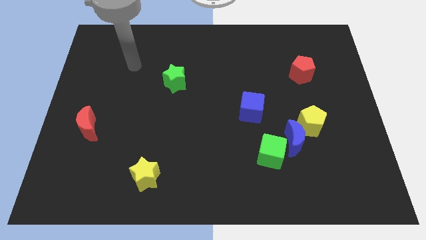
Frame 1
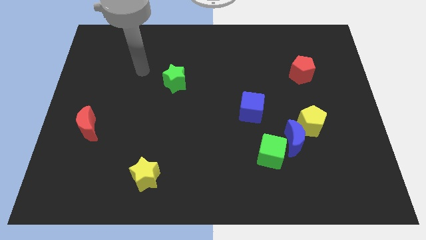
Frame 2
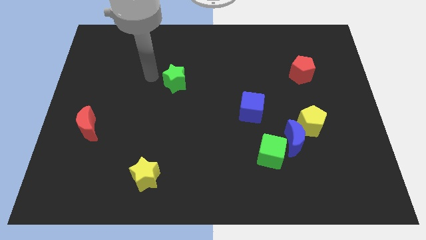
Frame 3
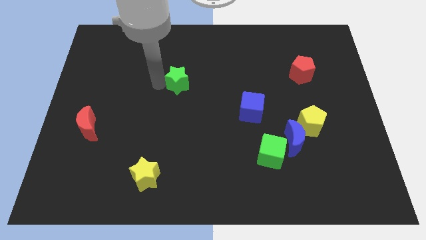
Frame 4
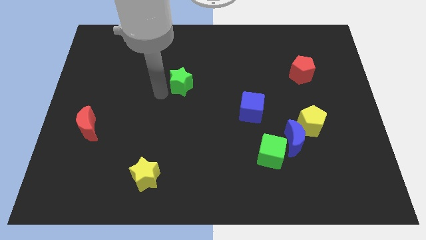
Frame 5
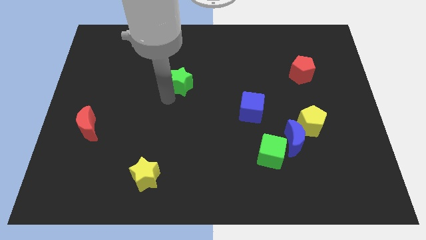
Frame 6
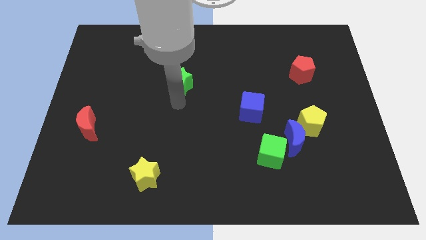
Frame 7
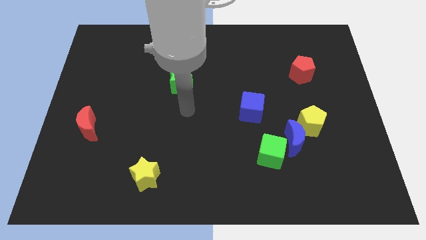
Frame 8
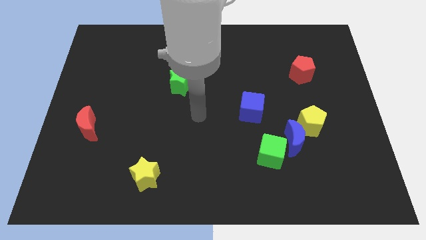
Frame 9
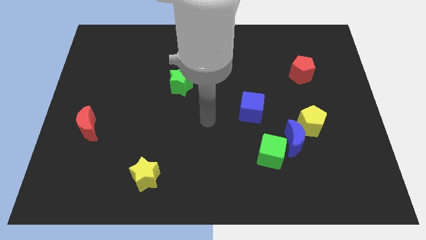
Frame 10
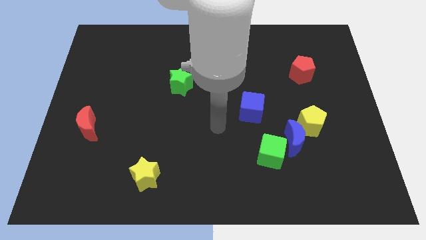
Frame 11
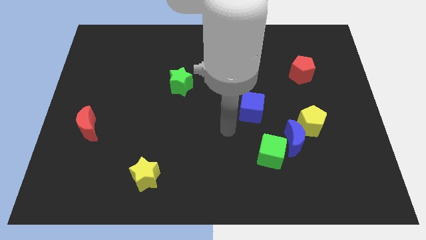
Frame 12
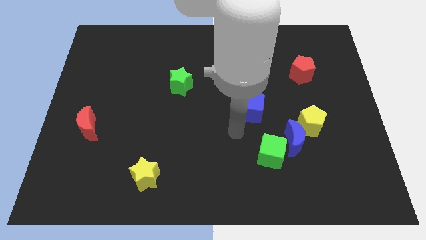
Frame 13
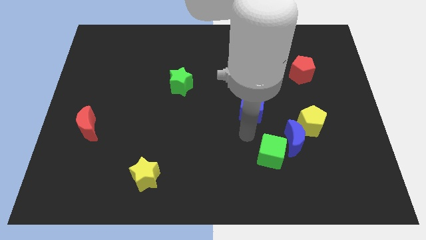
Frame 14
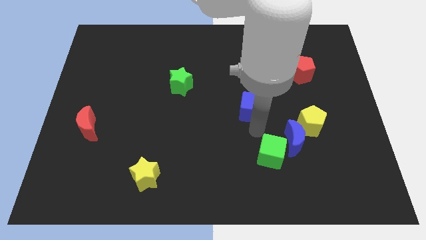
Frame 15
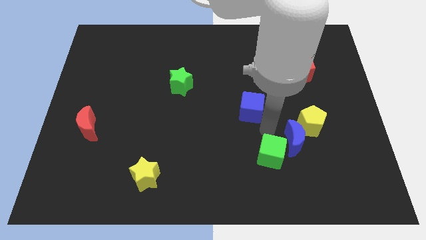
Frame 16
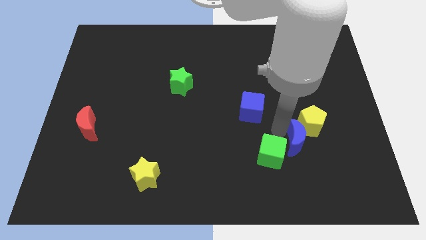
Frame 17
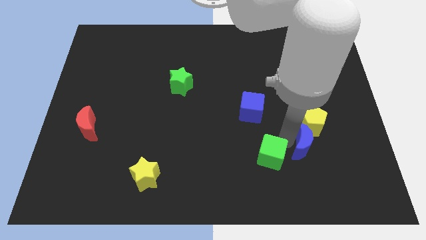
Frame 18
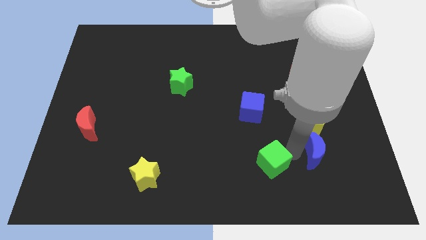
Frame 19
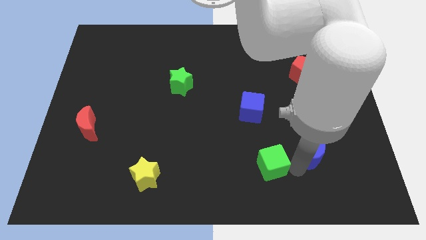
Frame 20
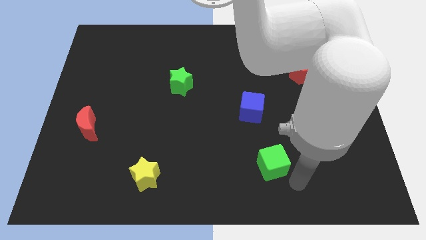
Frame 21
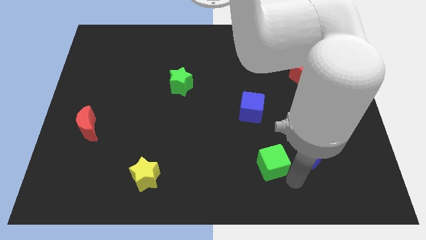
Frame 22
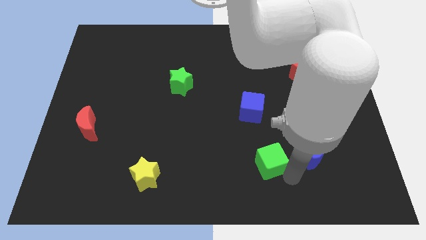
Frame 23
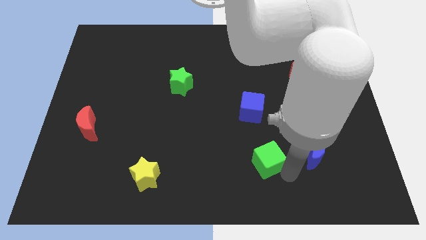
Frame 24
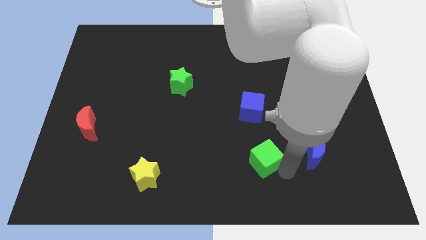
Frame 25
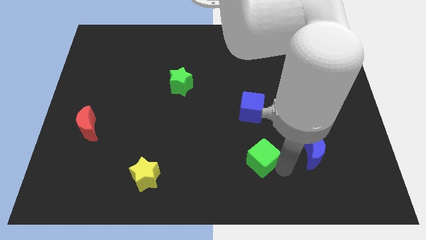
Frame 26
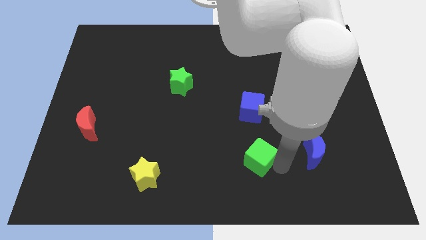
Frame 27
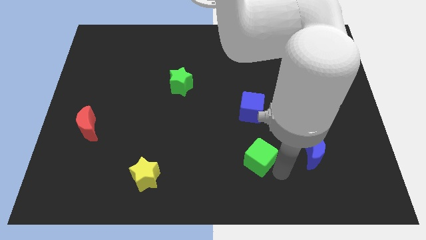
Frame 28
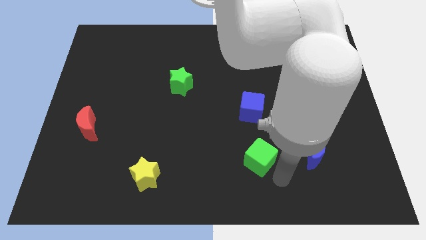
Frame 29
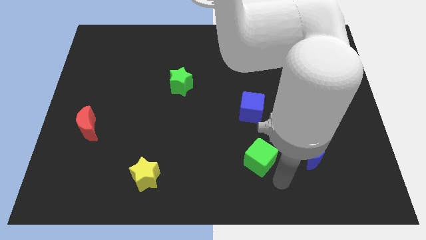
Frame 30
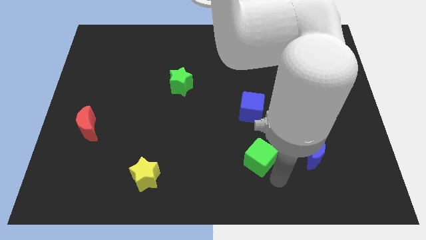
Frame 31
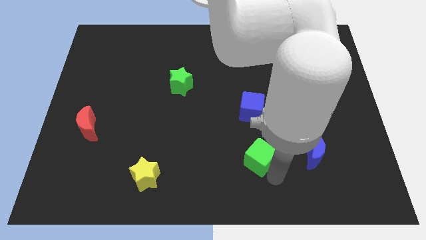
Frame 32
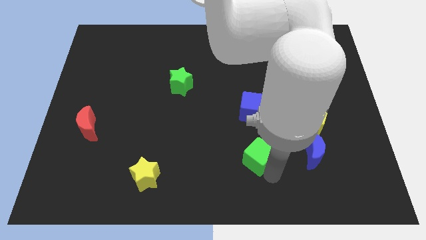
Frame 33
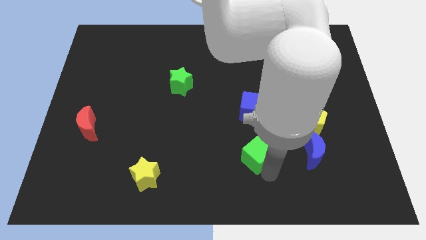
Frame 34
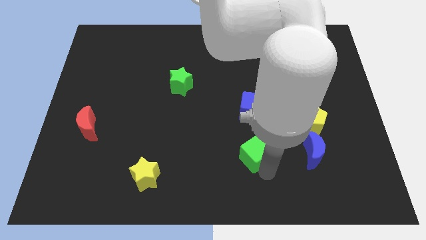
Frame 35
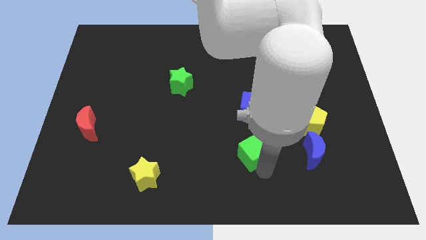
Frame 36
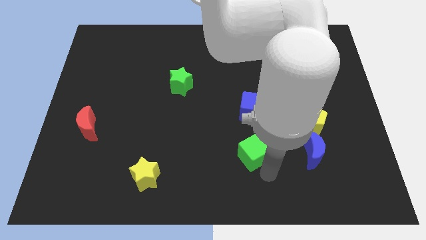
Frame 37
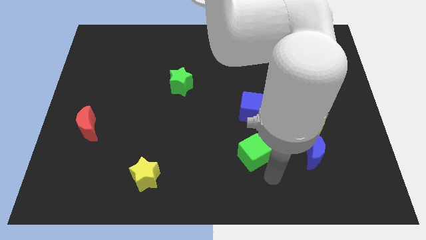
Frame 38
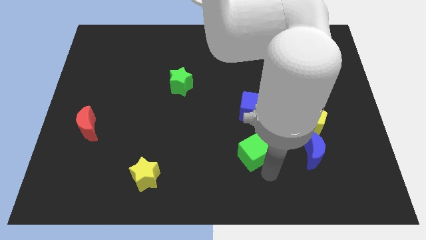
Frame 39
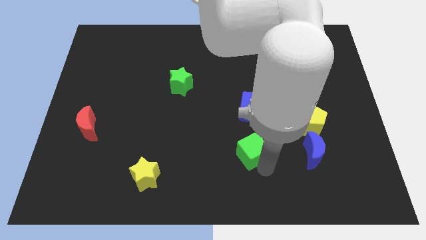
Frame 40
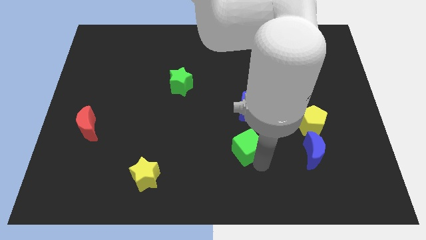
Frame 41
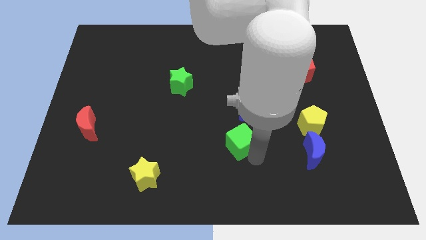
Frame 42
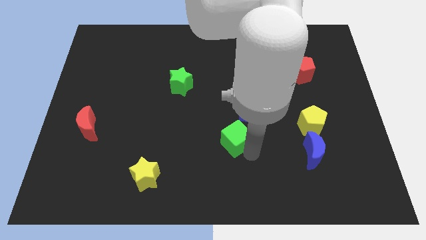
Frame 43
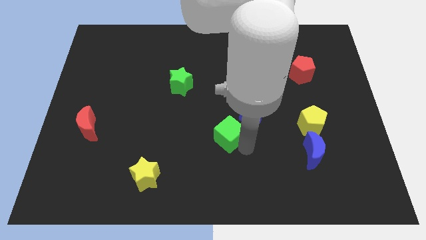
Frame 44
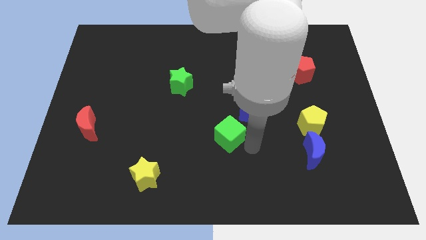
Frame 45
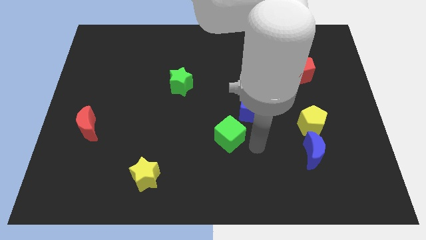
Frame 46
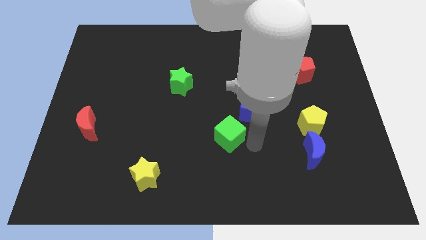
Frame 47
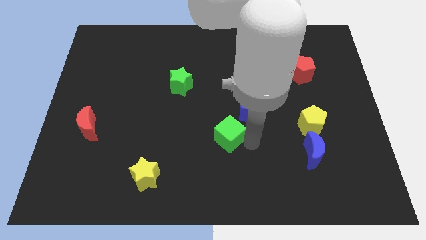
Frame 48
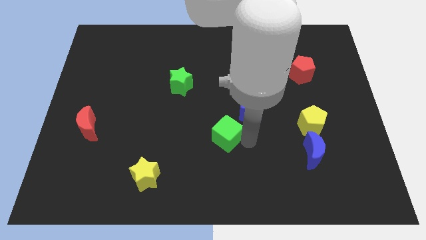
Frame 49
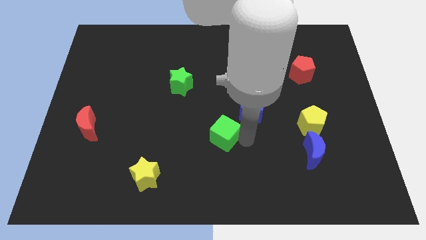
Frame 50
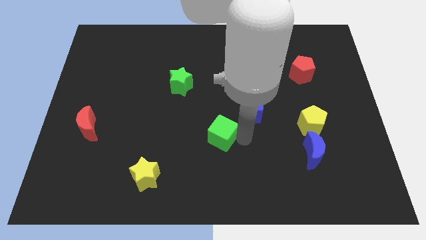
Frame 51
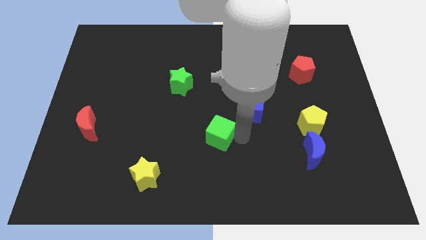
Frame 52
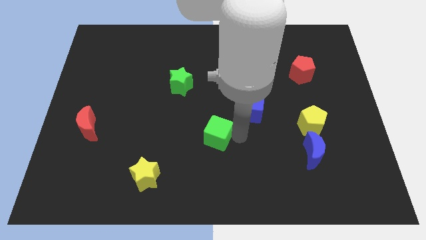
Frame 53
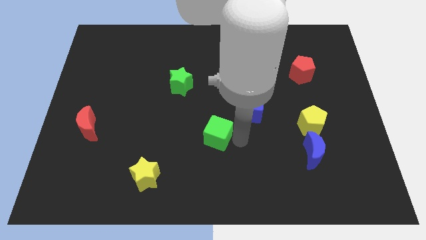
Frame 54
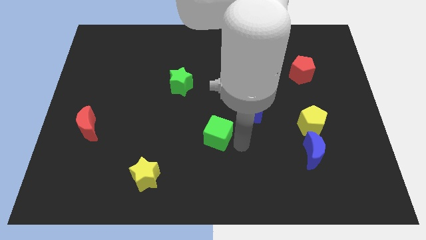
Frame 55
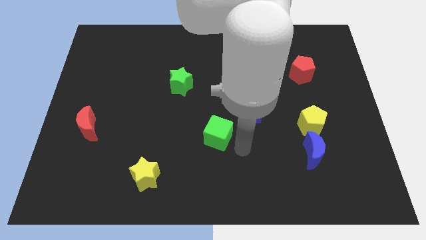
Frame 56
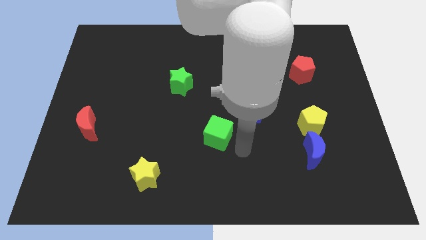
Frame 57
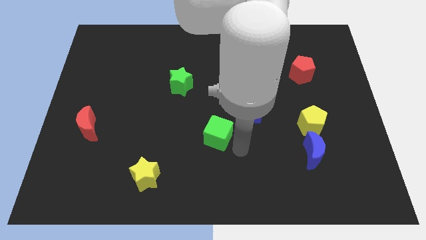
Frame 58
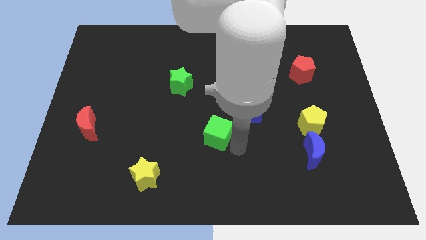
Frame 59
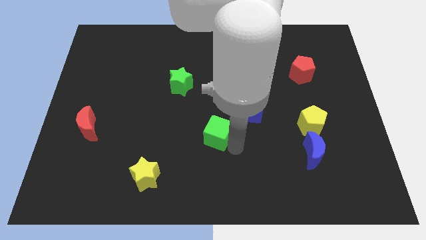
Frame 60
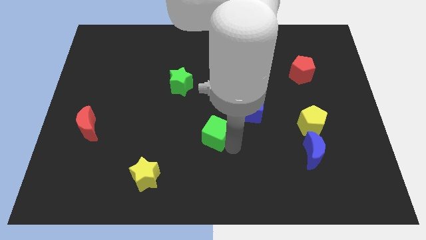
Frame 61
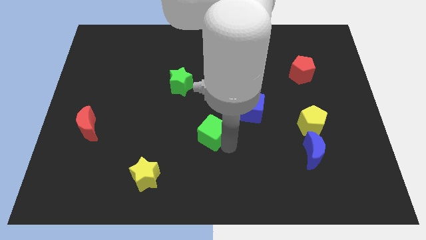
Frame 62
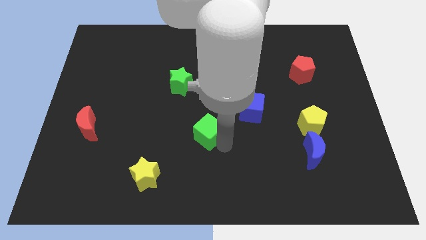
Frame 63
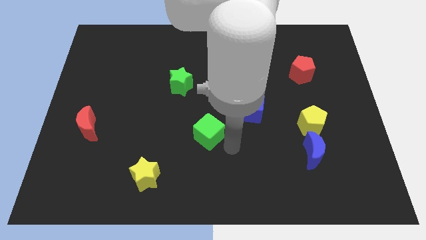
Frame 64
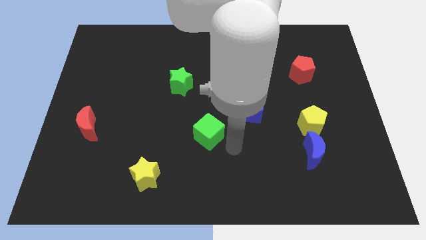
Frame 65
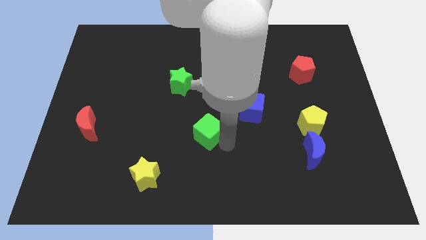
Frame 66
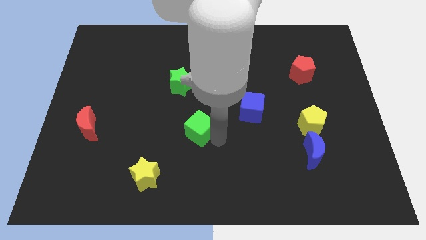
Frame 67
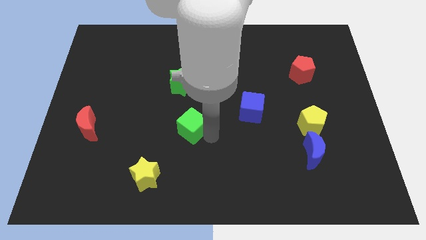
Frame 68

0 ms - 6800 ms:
move the green cube to the bottom of the green star
